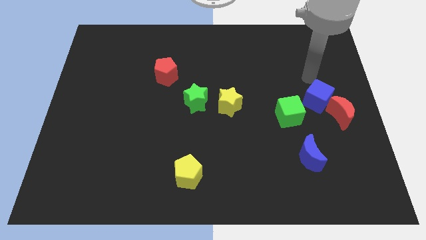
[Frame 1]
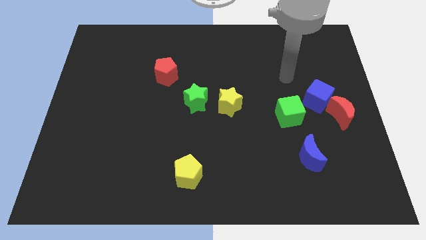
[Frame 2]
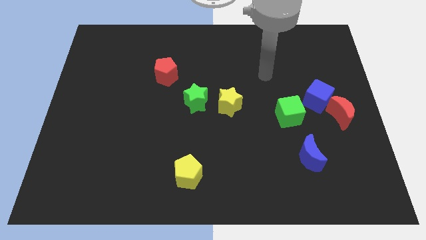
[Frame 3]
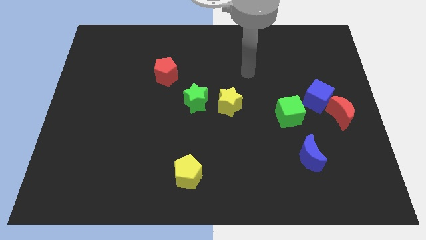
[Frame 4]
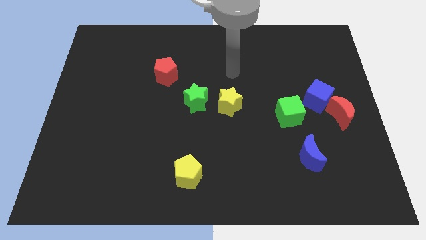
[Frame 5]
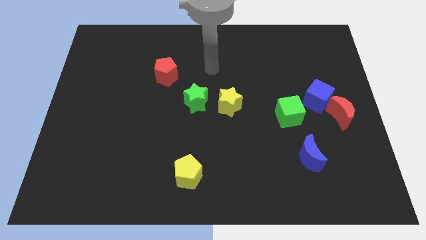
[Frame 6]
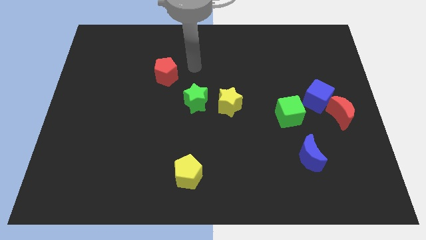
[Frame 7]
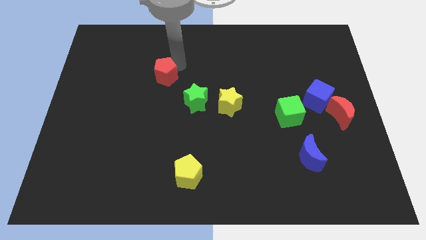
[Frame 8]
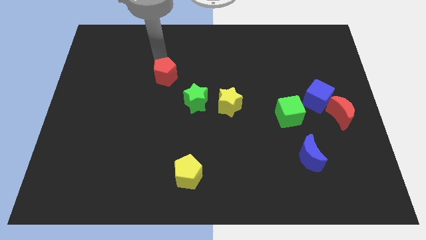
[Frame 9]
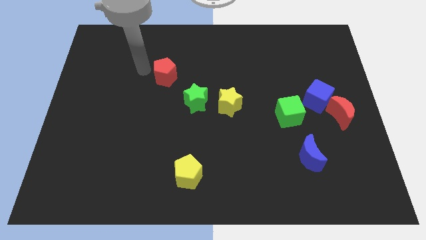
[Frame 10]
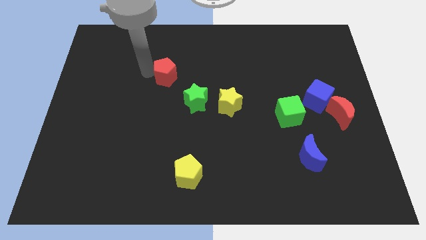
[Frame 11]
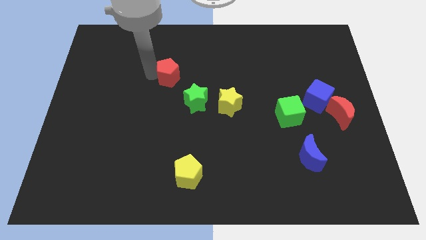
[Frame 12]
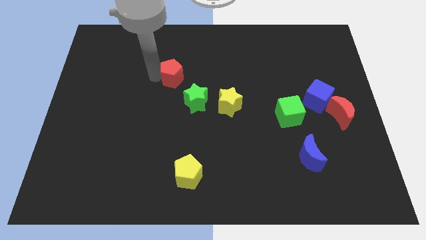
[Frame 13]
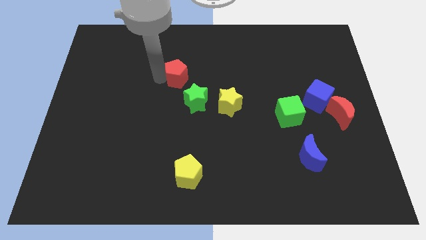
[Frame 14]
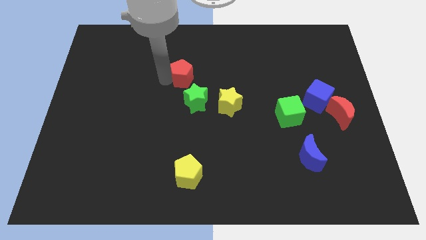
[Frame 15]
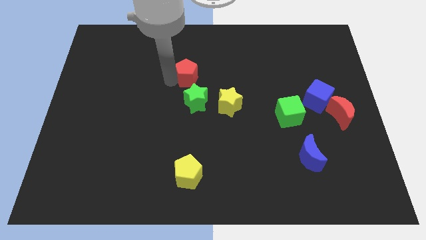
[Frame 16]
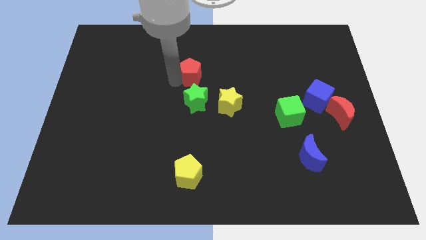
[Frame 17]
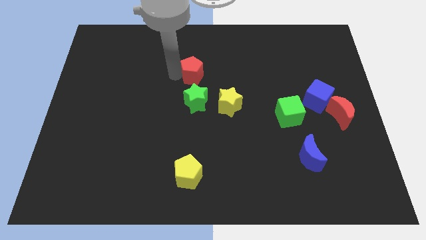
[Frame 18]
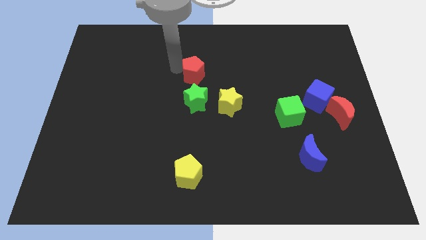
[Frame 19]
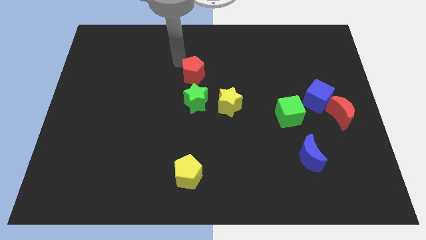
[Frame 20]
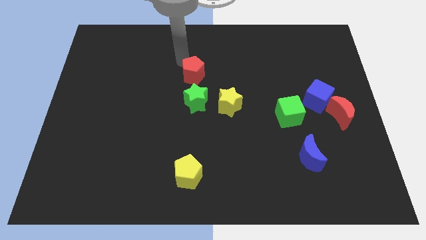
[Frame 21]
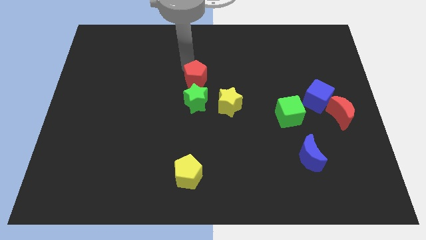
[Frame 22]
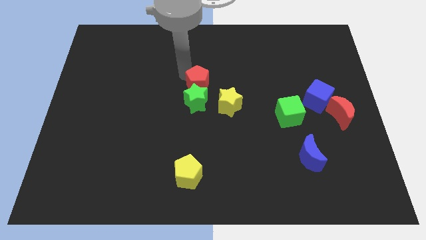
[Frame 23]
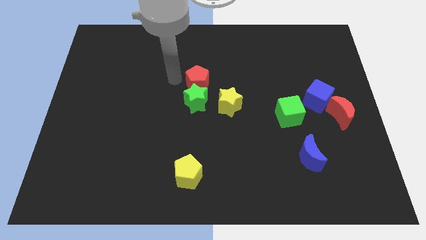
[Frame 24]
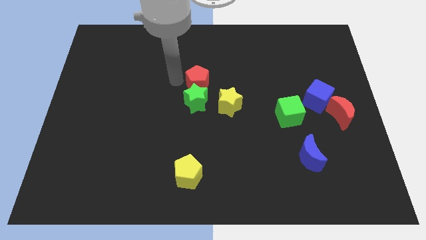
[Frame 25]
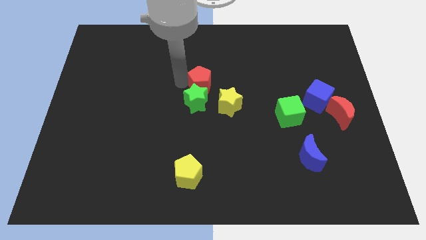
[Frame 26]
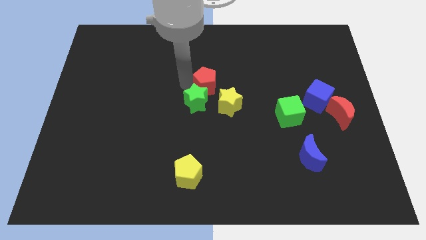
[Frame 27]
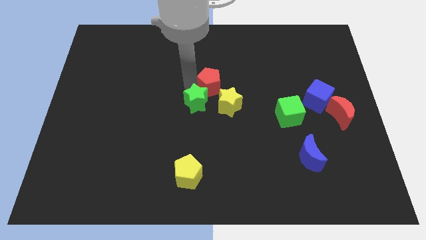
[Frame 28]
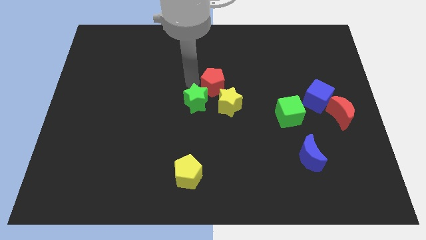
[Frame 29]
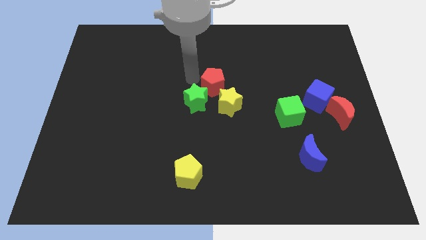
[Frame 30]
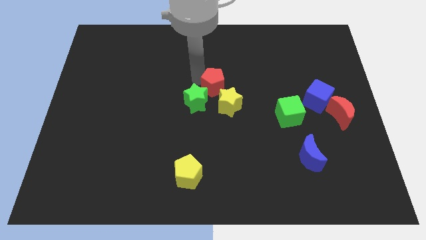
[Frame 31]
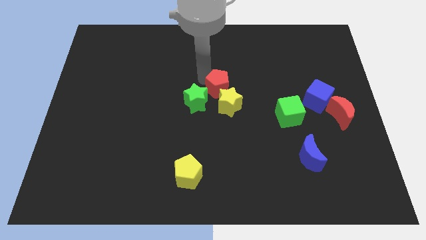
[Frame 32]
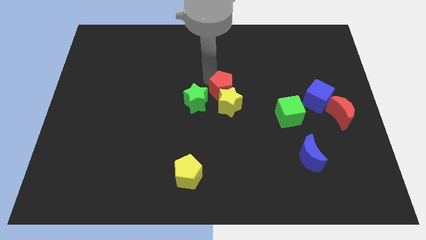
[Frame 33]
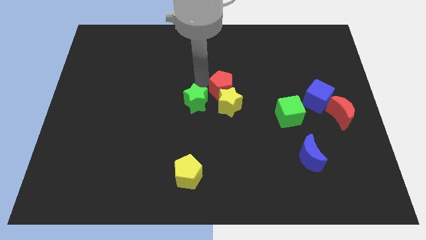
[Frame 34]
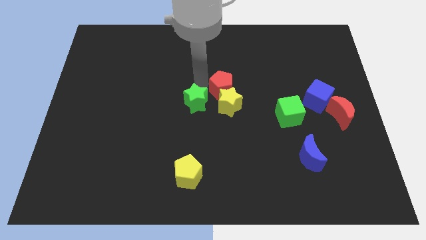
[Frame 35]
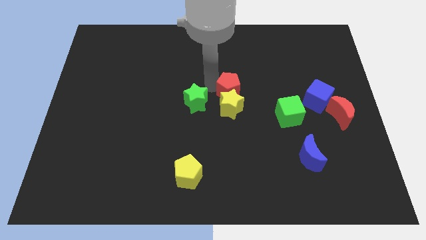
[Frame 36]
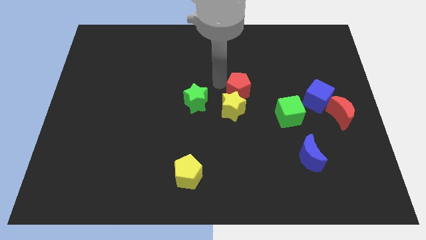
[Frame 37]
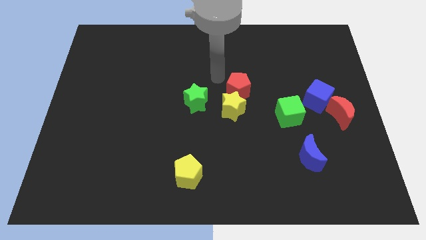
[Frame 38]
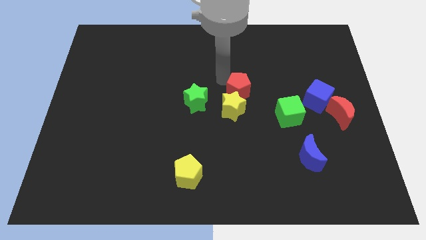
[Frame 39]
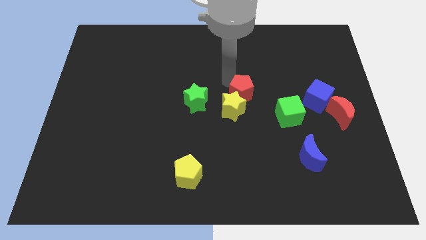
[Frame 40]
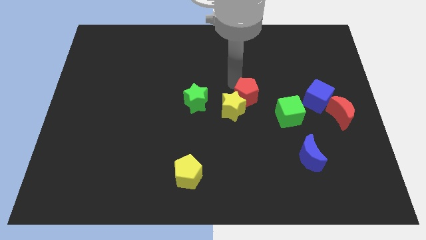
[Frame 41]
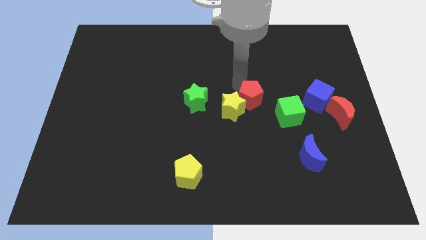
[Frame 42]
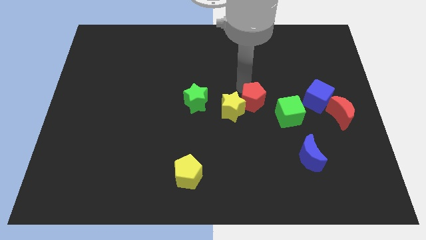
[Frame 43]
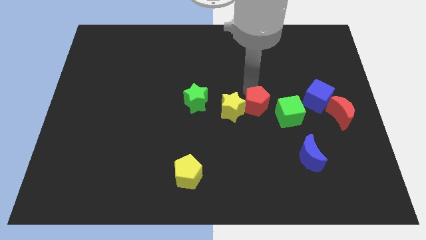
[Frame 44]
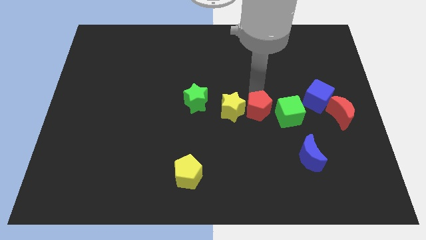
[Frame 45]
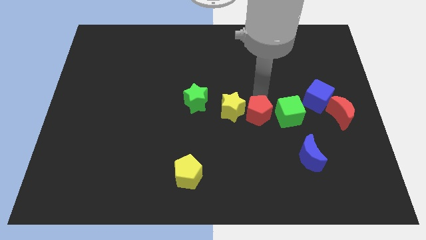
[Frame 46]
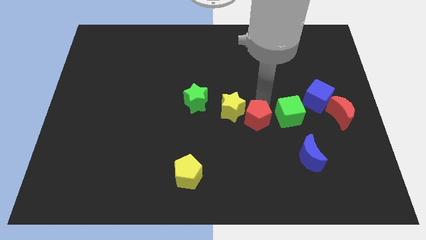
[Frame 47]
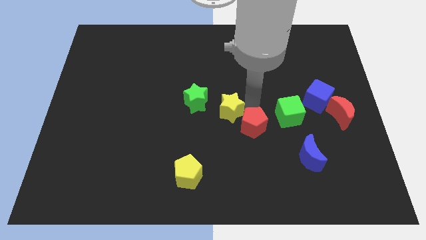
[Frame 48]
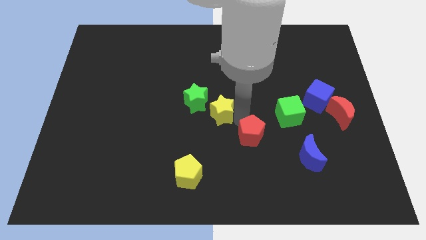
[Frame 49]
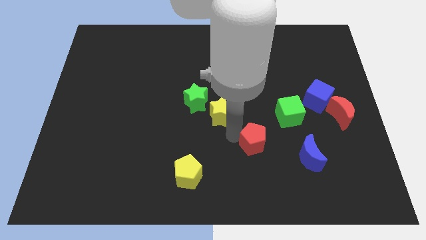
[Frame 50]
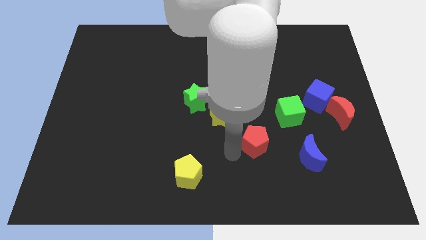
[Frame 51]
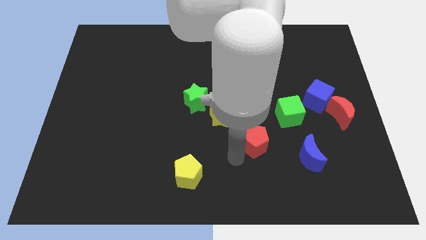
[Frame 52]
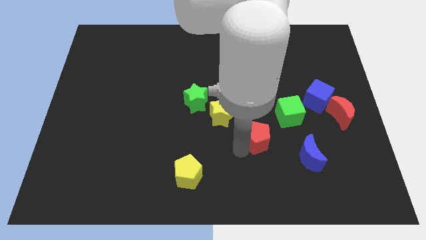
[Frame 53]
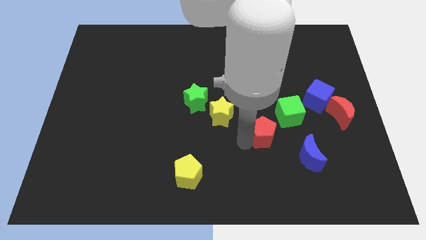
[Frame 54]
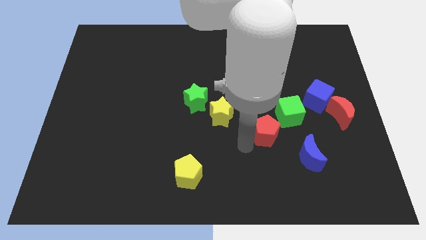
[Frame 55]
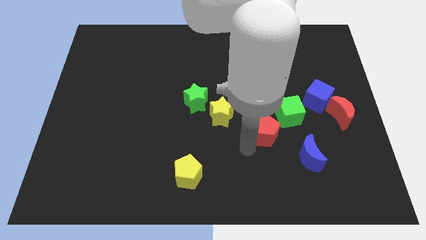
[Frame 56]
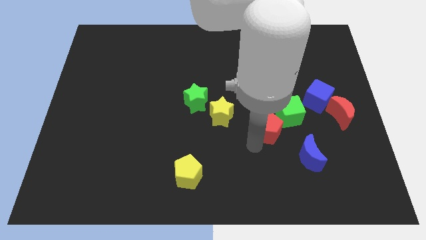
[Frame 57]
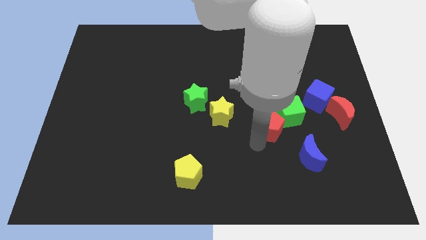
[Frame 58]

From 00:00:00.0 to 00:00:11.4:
slide the red pentagon next to the green cube
